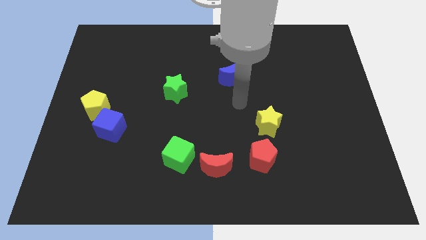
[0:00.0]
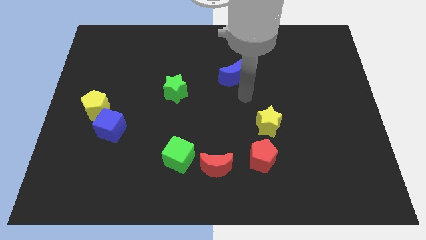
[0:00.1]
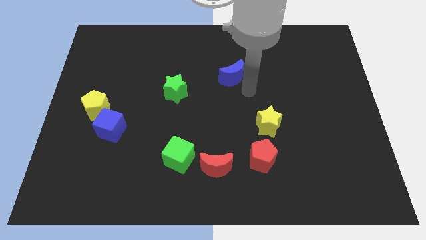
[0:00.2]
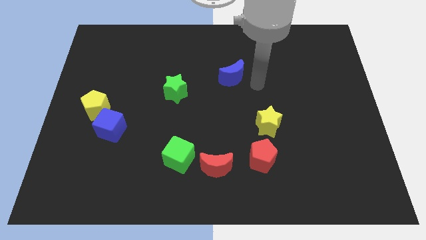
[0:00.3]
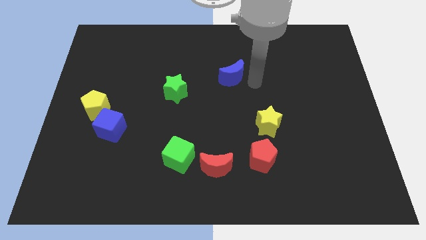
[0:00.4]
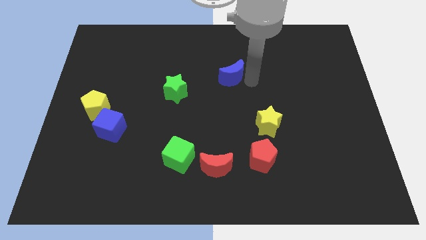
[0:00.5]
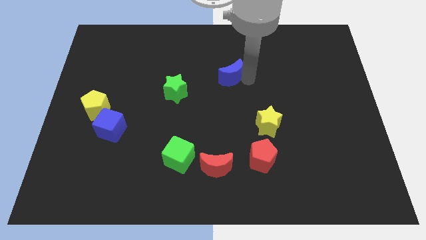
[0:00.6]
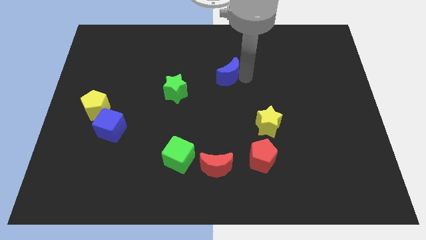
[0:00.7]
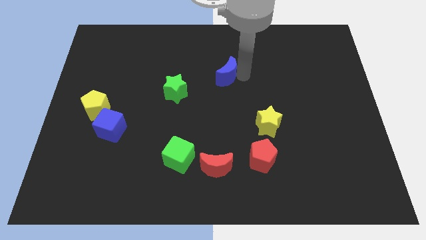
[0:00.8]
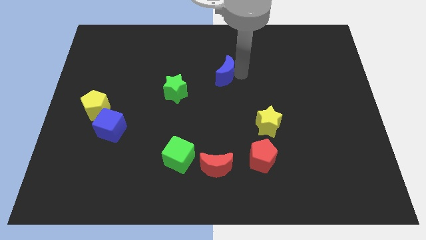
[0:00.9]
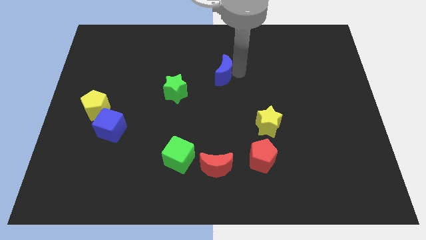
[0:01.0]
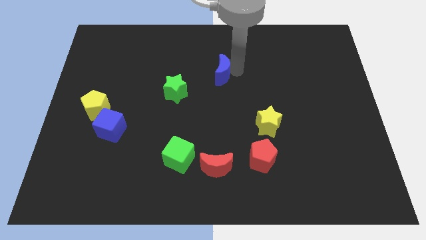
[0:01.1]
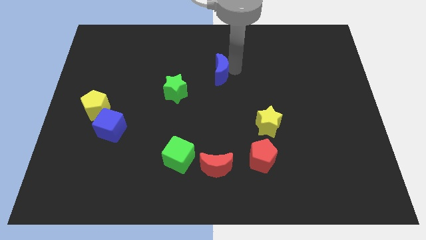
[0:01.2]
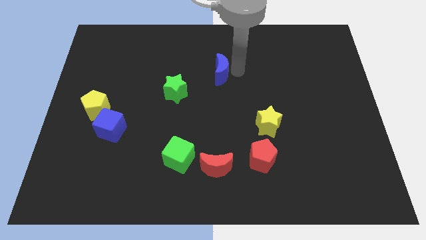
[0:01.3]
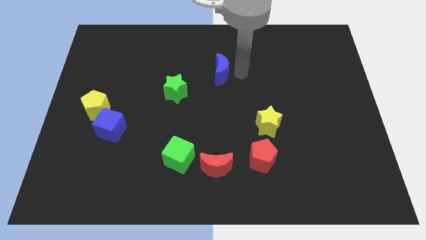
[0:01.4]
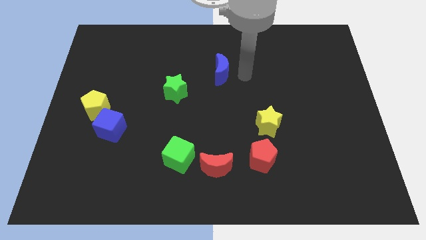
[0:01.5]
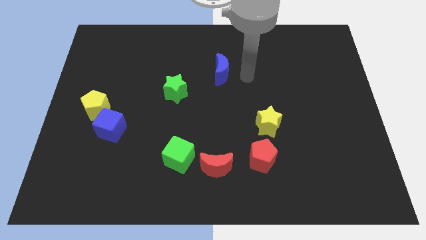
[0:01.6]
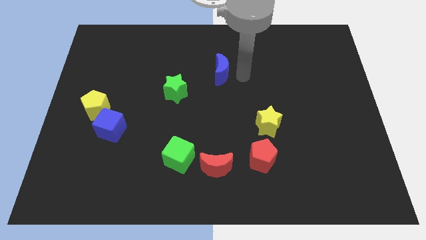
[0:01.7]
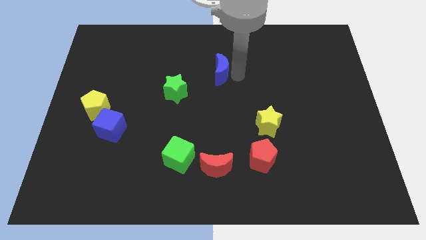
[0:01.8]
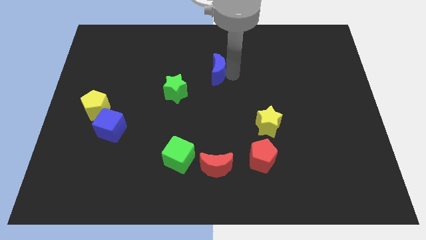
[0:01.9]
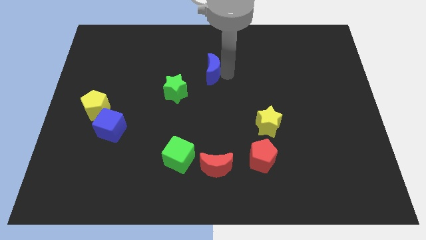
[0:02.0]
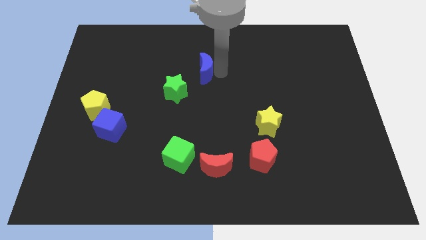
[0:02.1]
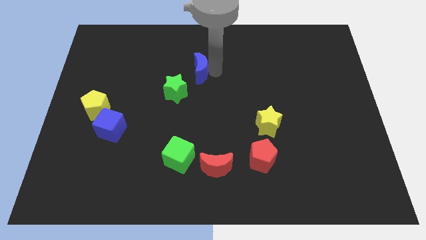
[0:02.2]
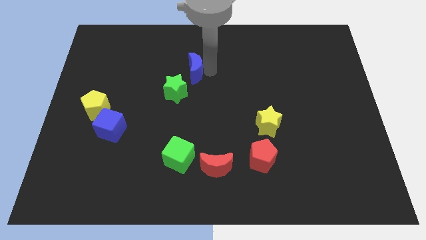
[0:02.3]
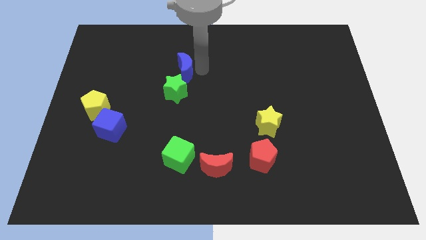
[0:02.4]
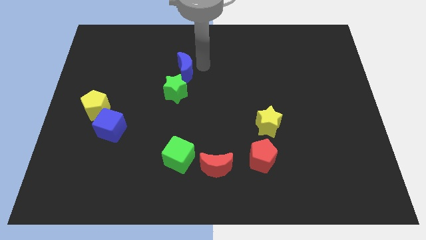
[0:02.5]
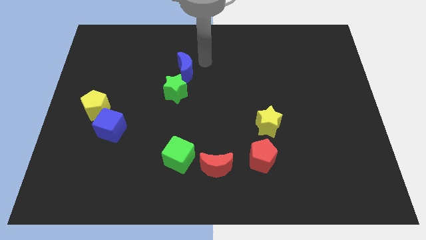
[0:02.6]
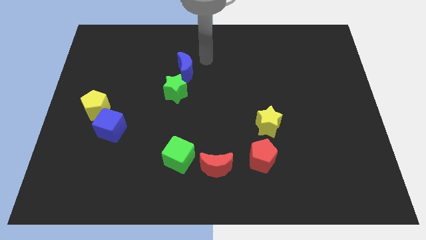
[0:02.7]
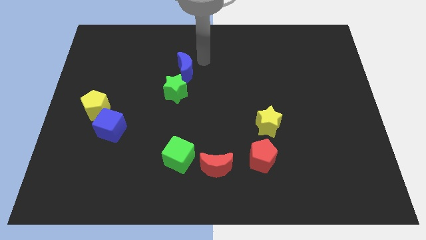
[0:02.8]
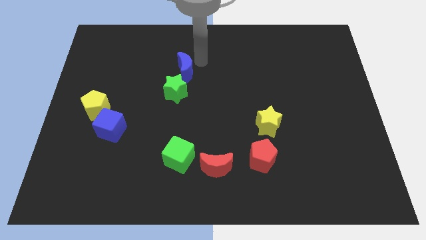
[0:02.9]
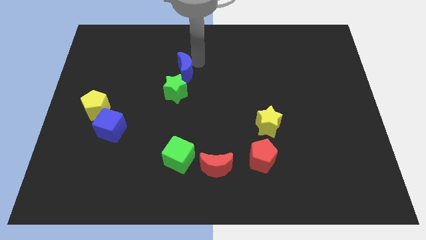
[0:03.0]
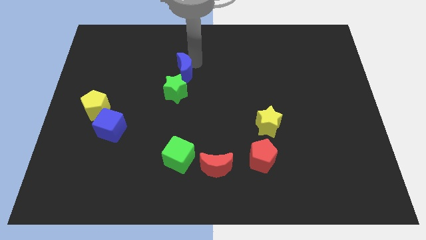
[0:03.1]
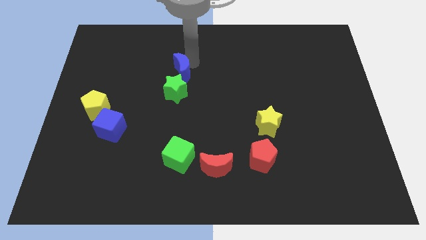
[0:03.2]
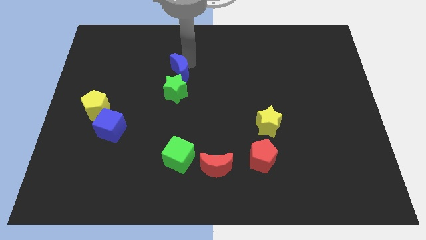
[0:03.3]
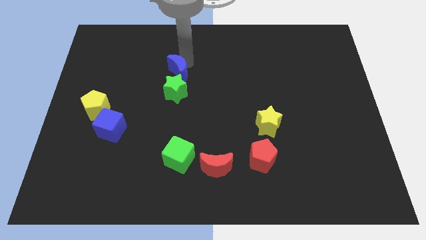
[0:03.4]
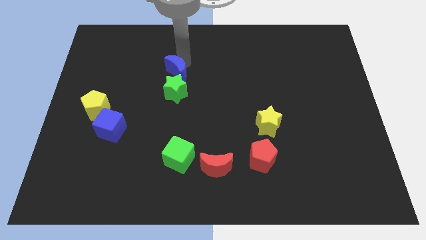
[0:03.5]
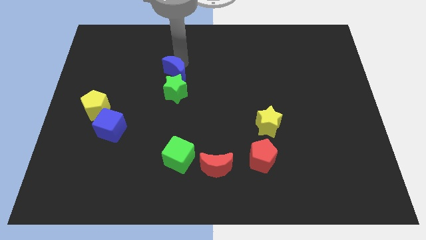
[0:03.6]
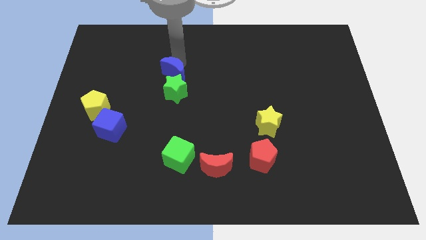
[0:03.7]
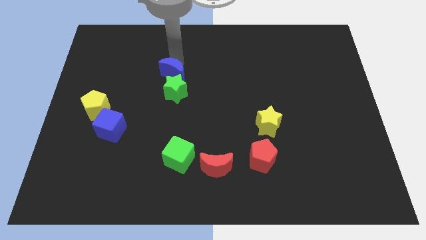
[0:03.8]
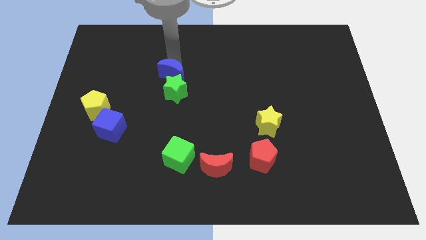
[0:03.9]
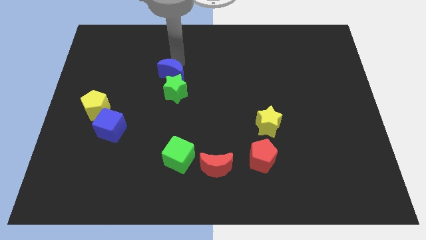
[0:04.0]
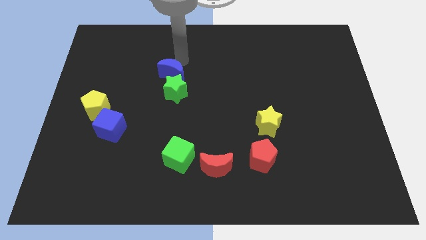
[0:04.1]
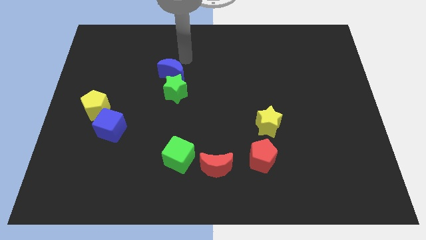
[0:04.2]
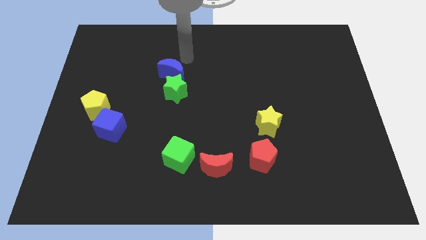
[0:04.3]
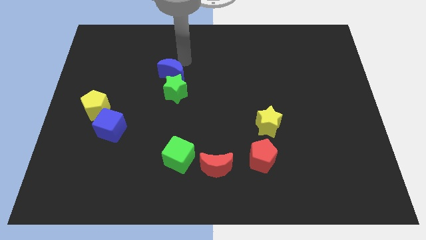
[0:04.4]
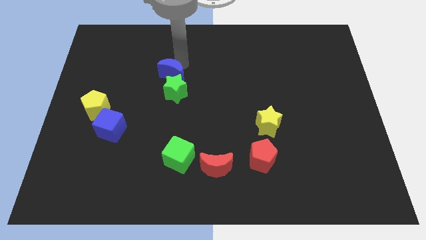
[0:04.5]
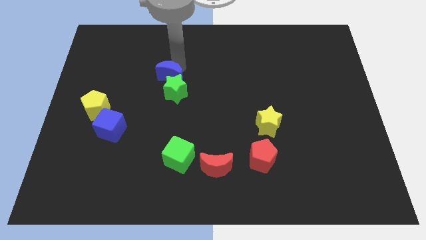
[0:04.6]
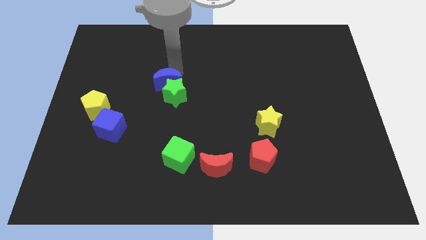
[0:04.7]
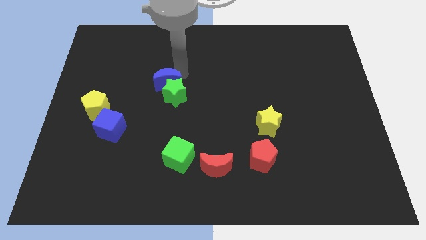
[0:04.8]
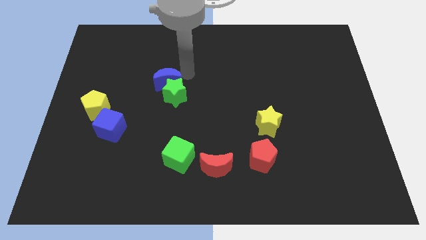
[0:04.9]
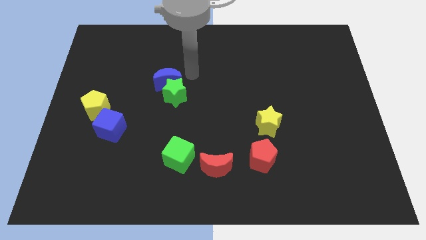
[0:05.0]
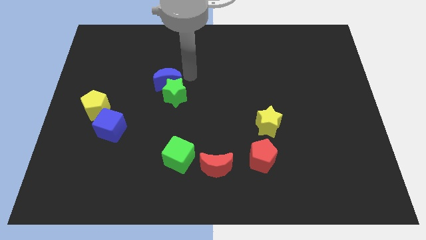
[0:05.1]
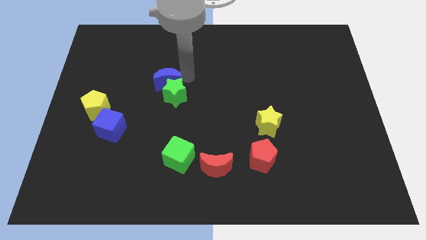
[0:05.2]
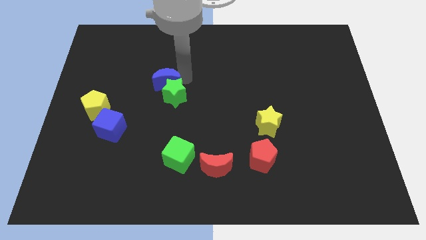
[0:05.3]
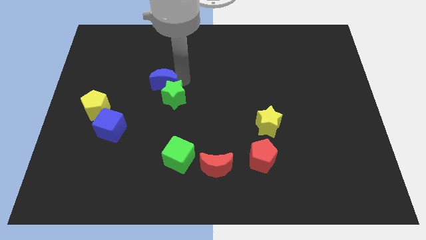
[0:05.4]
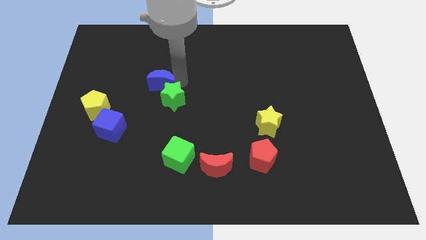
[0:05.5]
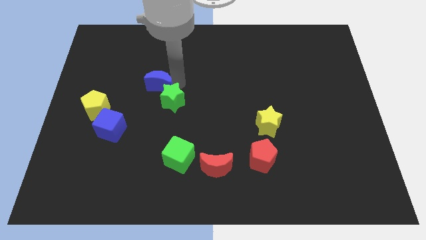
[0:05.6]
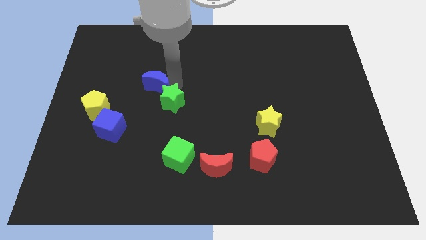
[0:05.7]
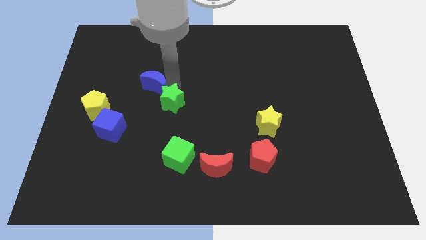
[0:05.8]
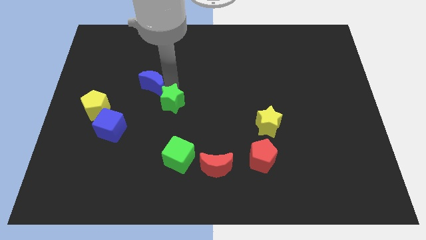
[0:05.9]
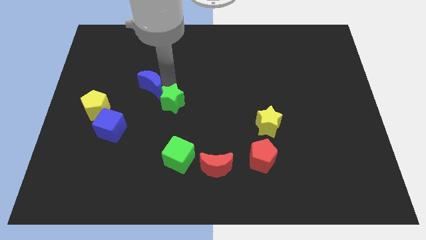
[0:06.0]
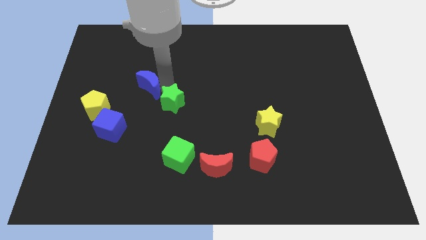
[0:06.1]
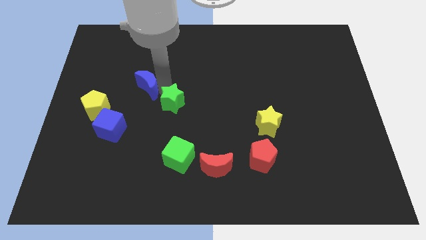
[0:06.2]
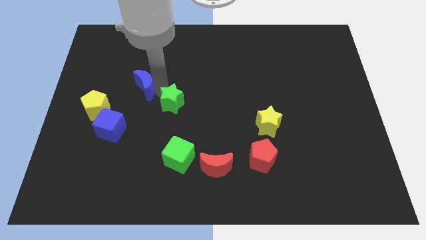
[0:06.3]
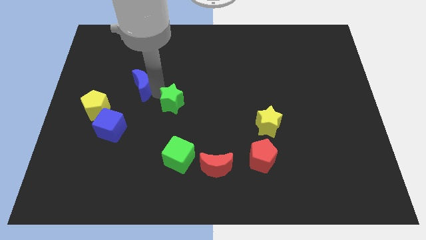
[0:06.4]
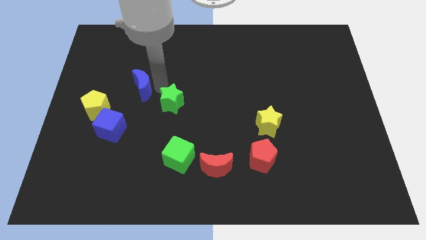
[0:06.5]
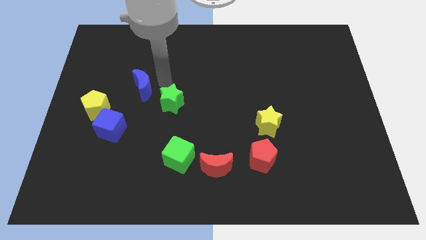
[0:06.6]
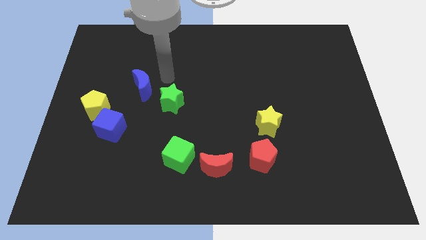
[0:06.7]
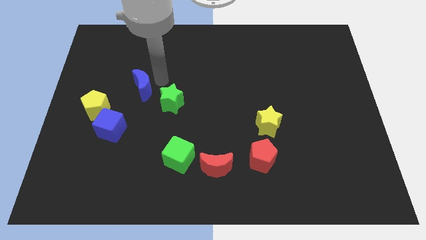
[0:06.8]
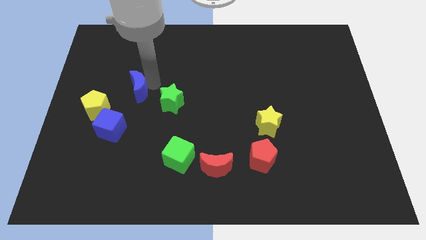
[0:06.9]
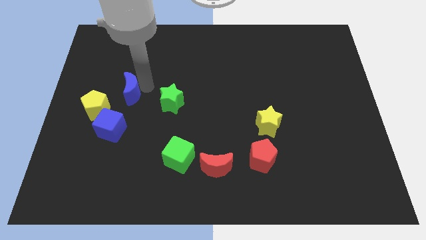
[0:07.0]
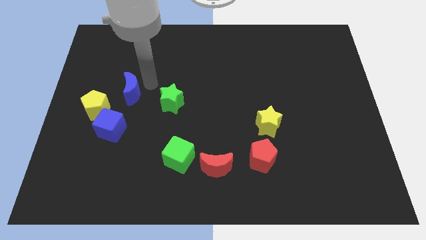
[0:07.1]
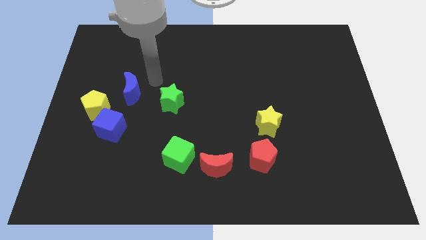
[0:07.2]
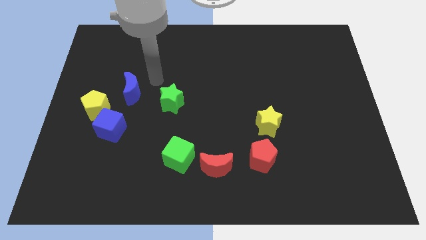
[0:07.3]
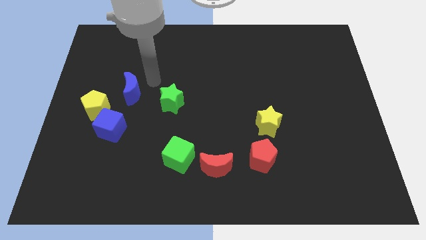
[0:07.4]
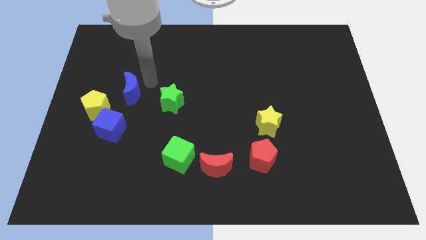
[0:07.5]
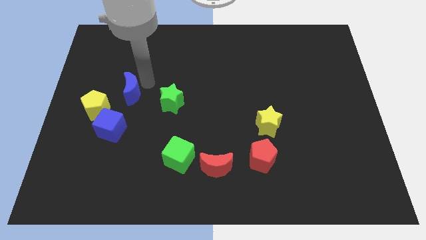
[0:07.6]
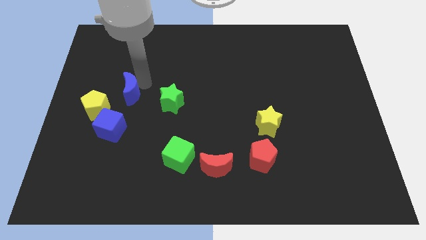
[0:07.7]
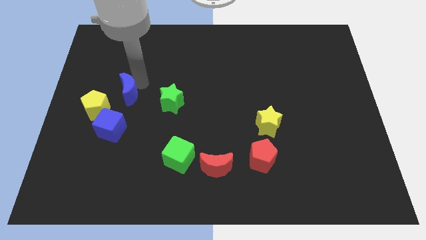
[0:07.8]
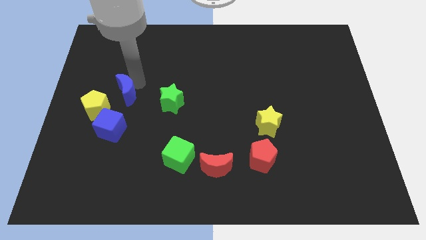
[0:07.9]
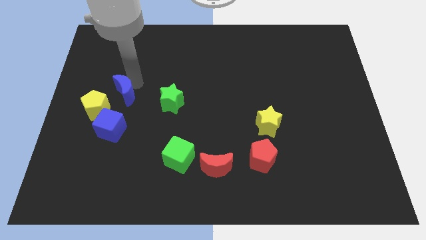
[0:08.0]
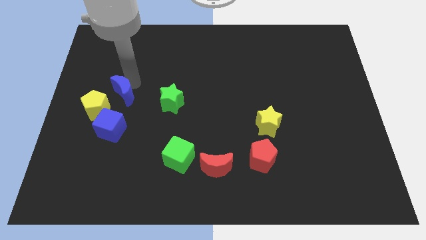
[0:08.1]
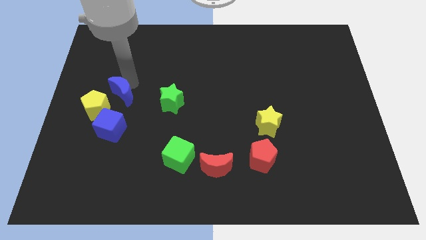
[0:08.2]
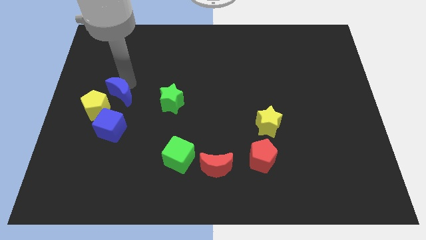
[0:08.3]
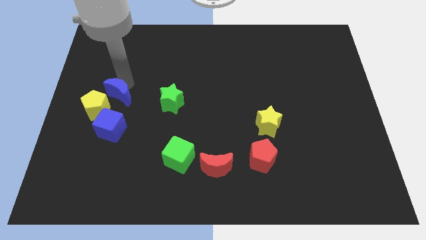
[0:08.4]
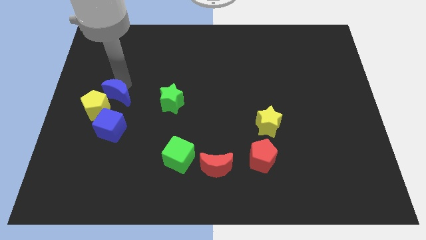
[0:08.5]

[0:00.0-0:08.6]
move the blue moon towards the yellow pentagon
